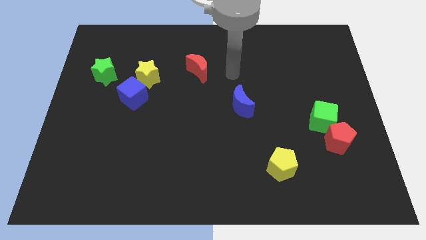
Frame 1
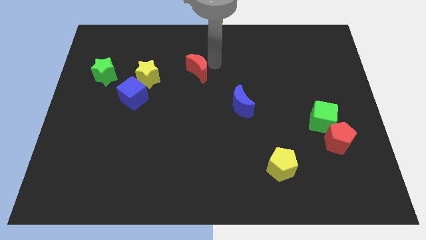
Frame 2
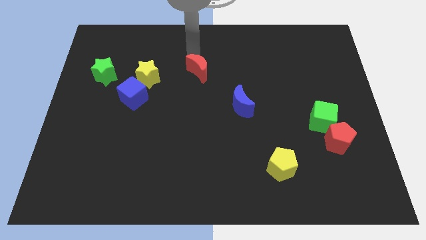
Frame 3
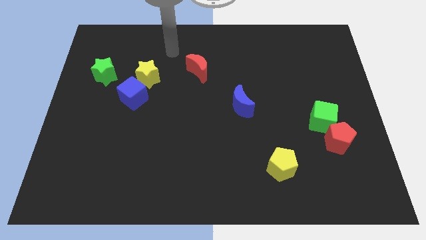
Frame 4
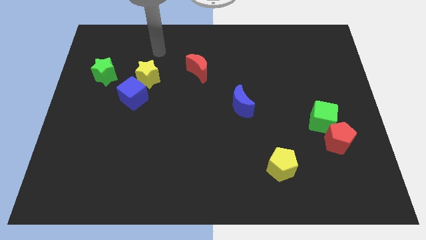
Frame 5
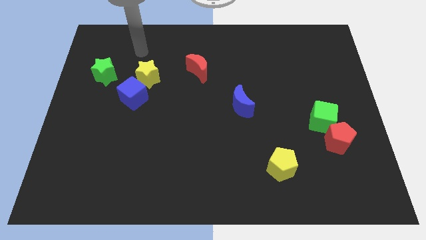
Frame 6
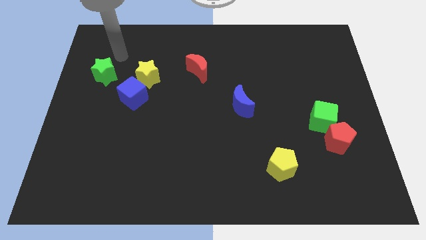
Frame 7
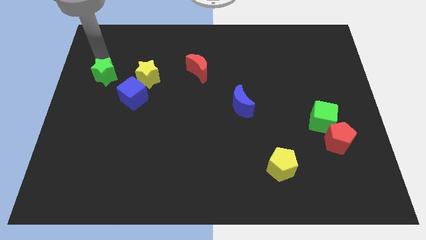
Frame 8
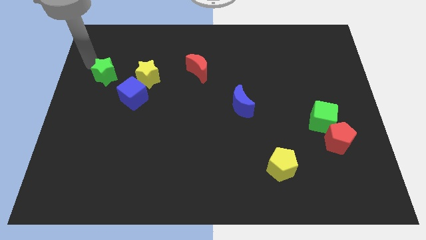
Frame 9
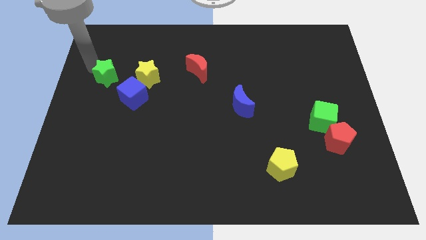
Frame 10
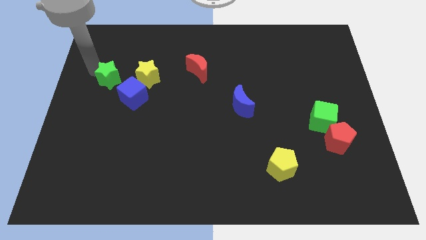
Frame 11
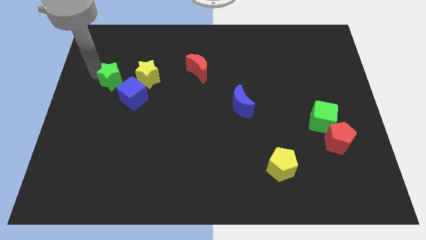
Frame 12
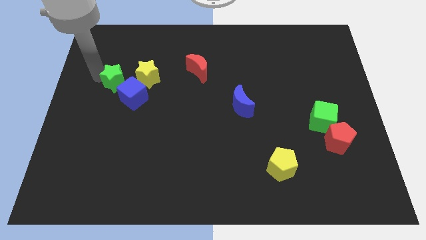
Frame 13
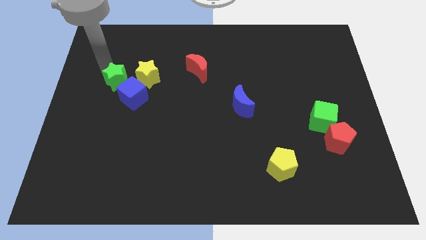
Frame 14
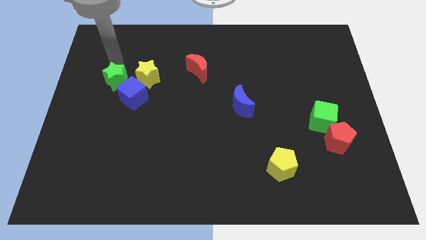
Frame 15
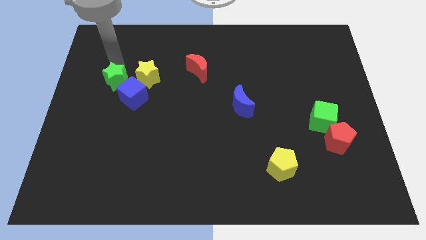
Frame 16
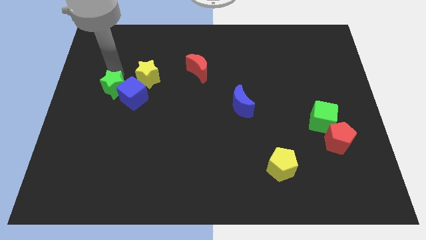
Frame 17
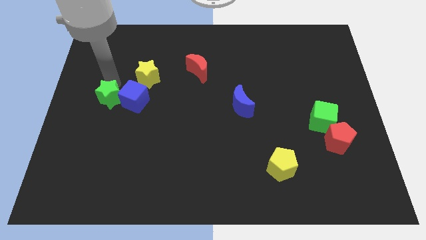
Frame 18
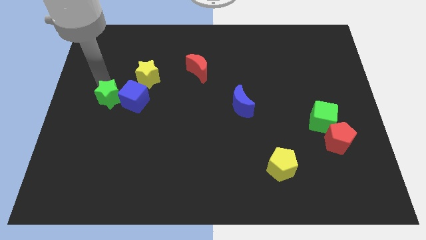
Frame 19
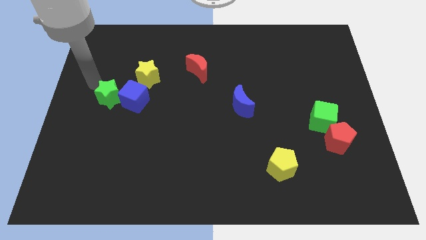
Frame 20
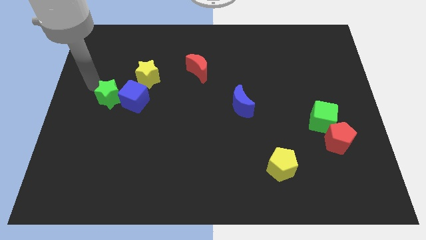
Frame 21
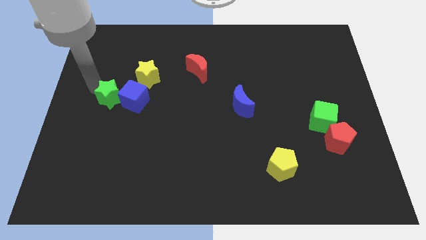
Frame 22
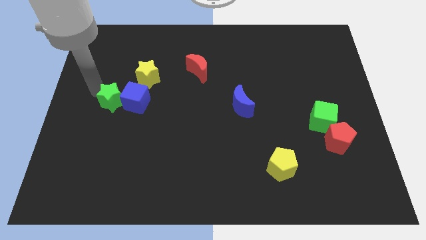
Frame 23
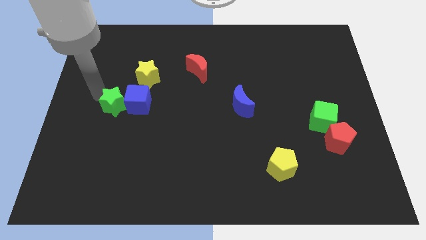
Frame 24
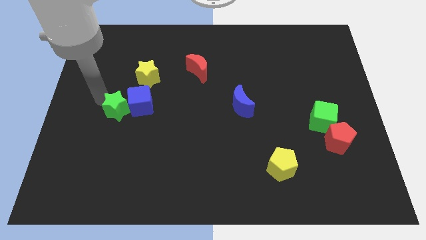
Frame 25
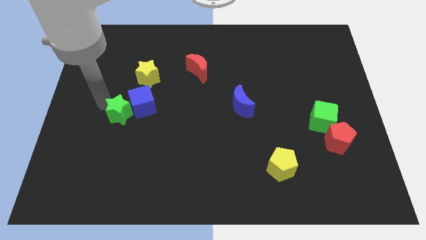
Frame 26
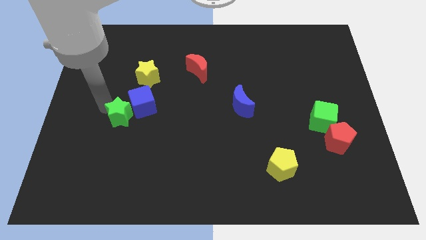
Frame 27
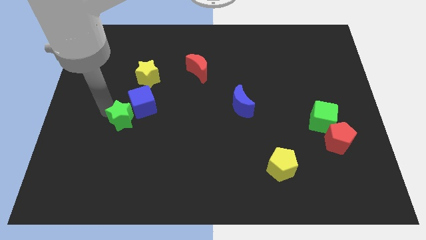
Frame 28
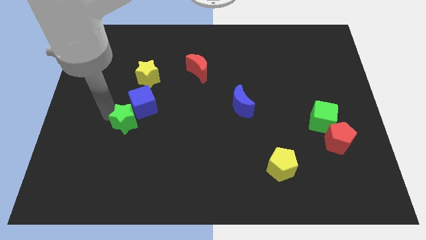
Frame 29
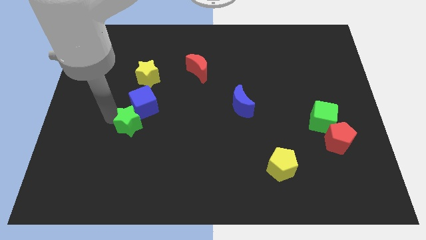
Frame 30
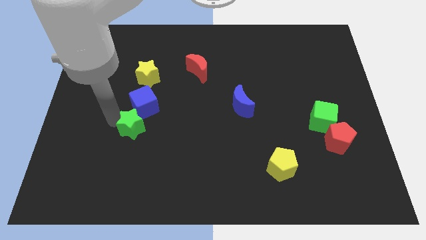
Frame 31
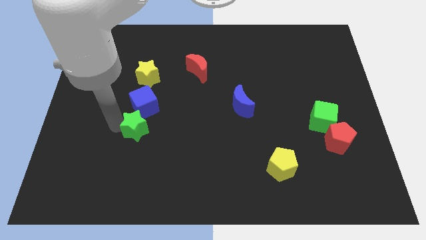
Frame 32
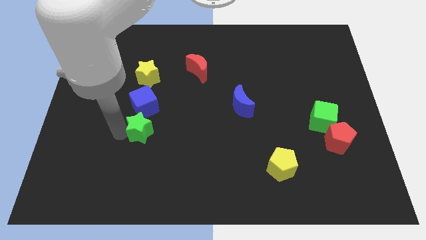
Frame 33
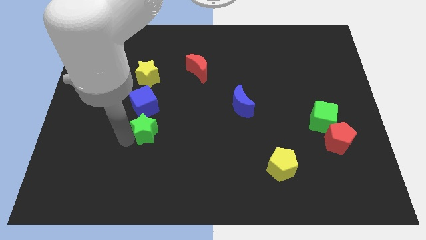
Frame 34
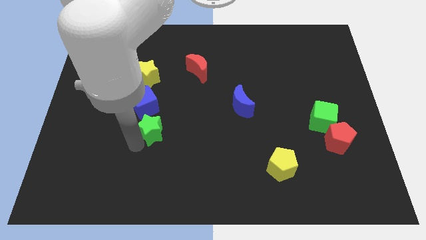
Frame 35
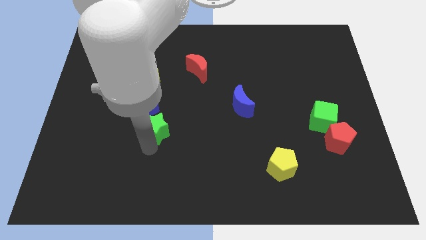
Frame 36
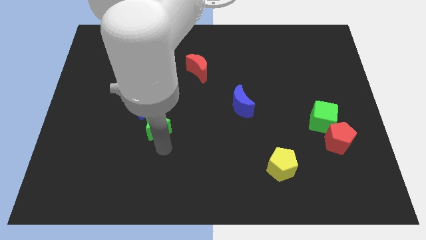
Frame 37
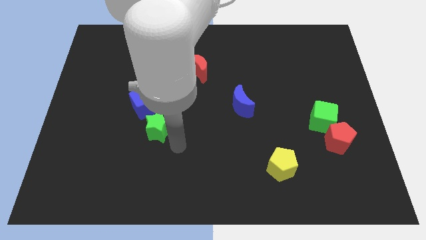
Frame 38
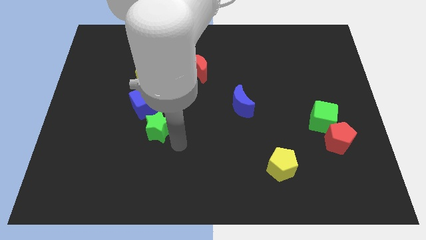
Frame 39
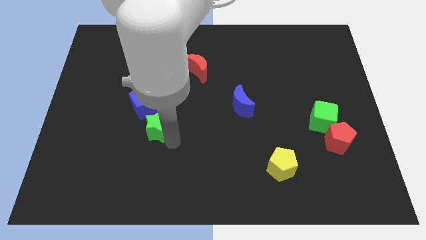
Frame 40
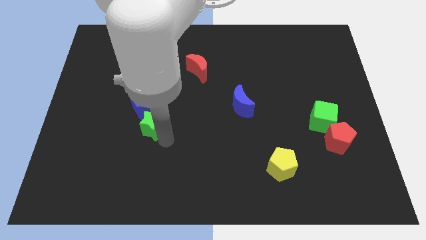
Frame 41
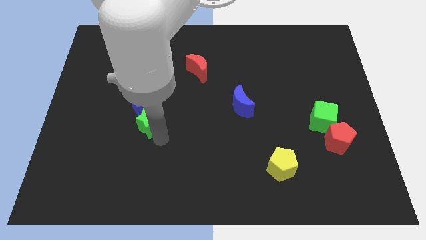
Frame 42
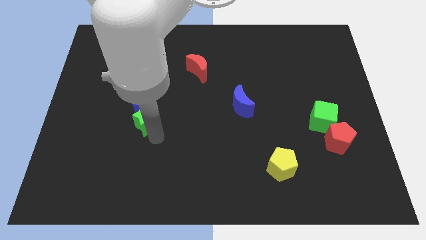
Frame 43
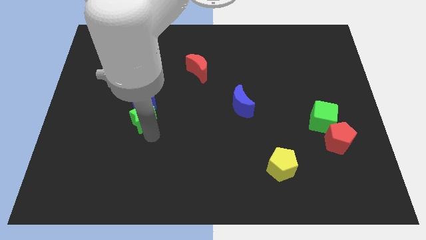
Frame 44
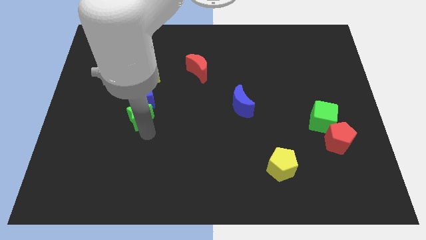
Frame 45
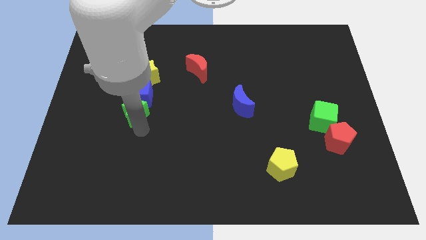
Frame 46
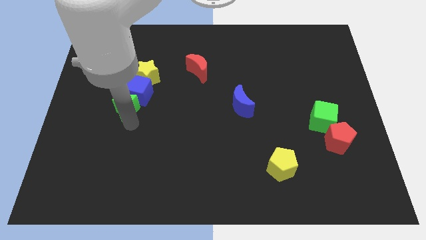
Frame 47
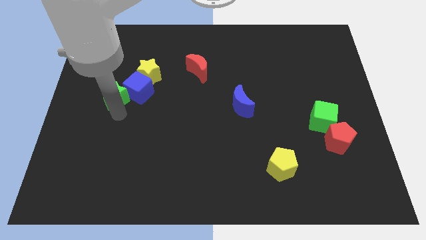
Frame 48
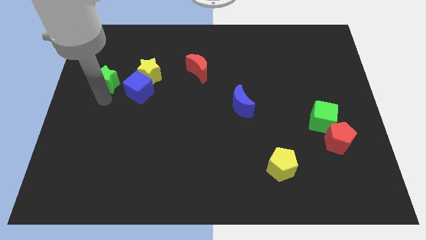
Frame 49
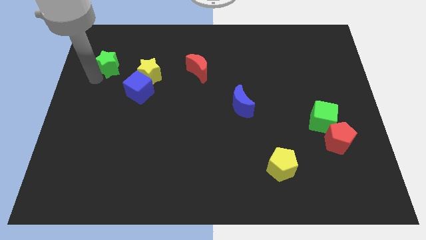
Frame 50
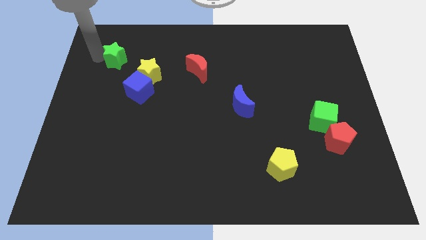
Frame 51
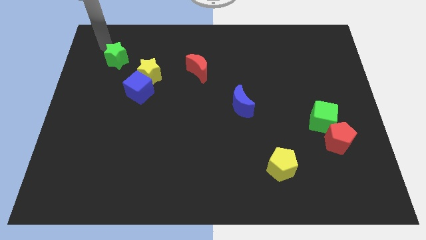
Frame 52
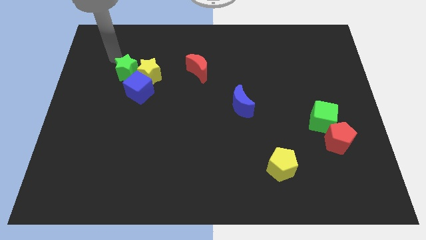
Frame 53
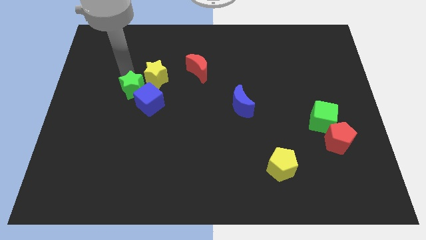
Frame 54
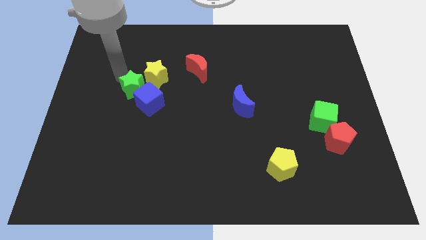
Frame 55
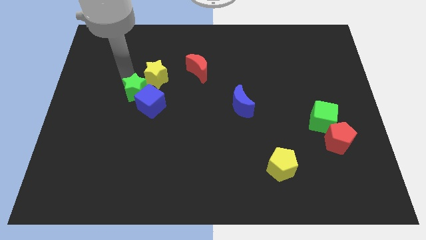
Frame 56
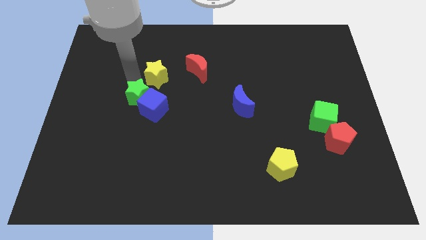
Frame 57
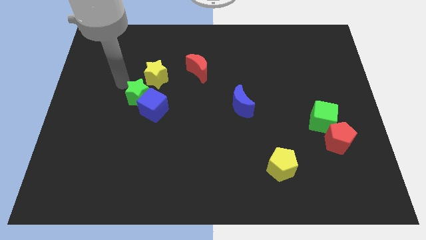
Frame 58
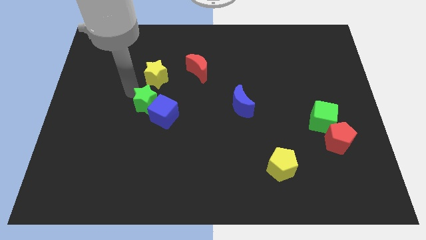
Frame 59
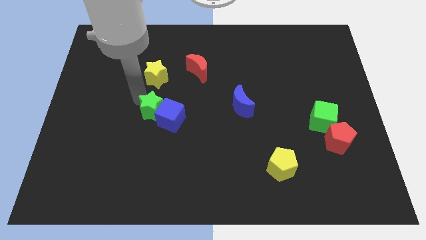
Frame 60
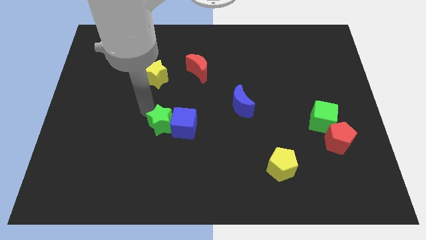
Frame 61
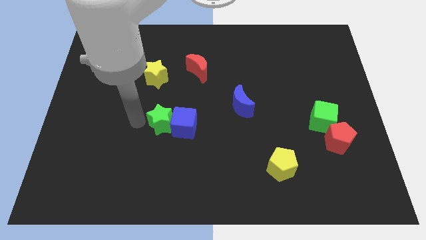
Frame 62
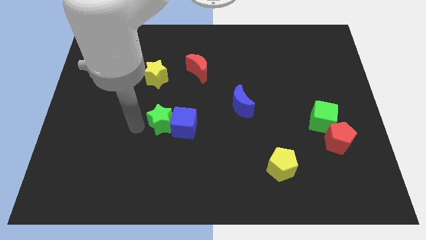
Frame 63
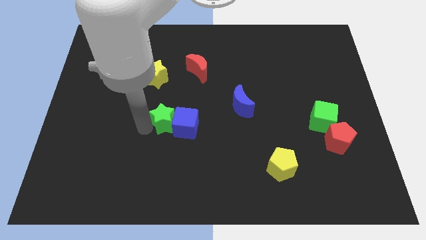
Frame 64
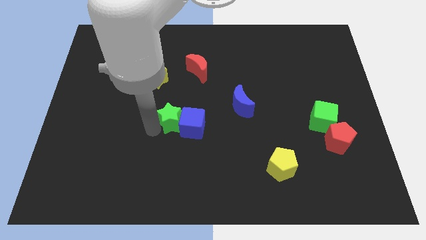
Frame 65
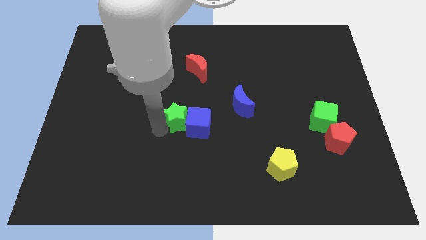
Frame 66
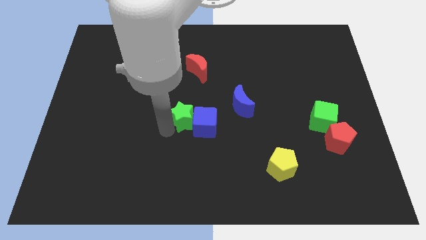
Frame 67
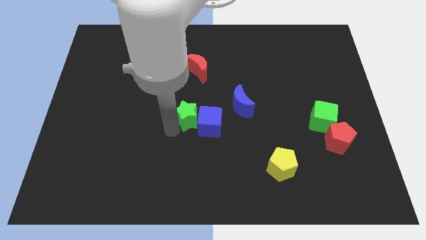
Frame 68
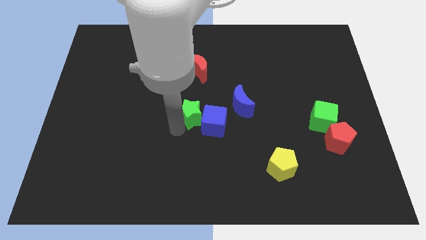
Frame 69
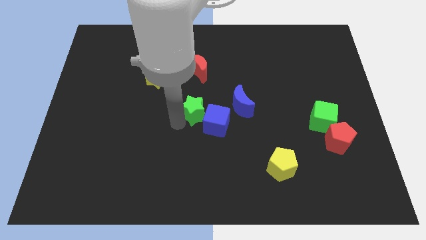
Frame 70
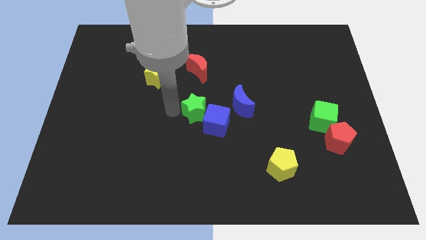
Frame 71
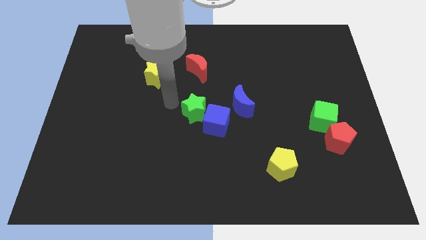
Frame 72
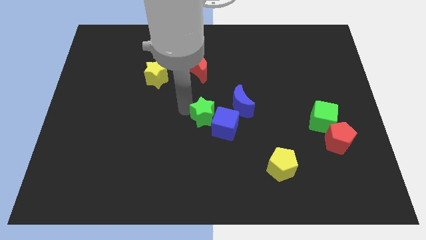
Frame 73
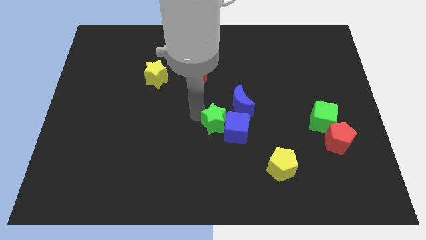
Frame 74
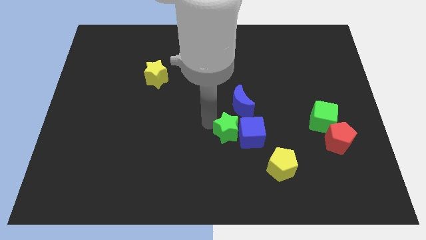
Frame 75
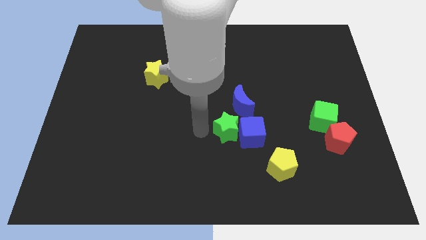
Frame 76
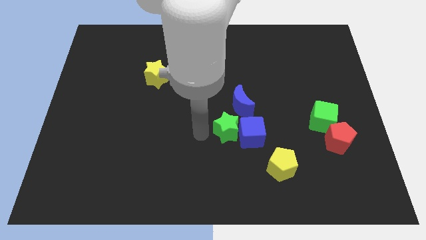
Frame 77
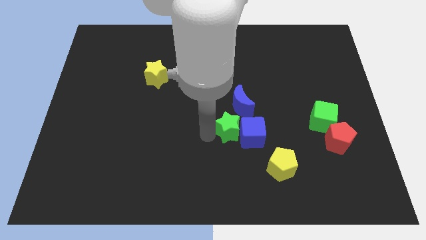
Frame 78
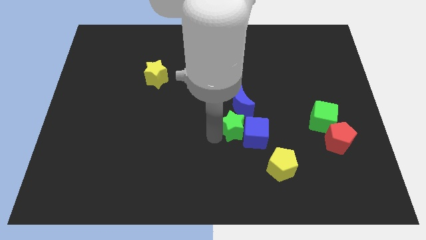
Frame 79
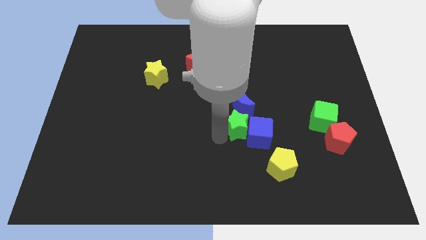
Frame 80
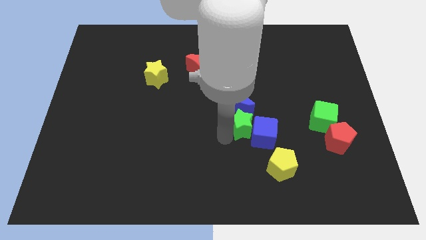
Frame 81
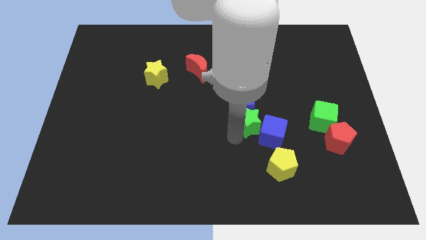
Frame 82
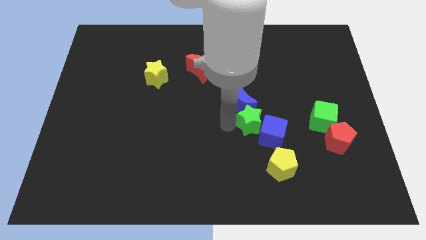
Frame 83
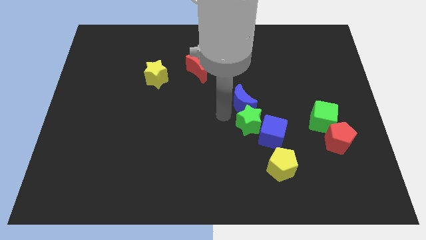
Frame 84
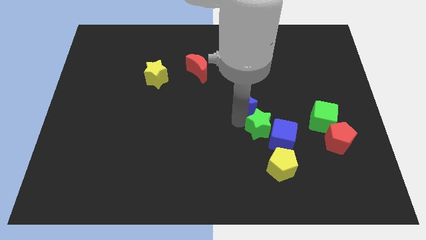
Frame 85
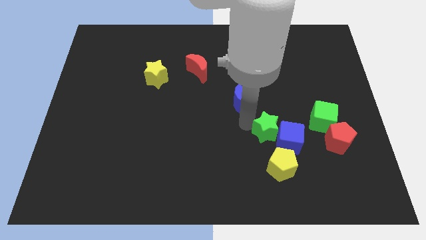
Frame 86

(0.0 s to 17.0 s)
slide the green star left of the red pentagon
